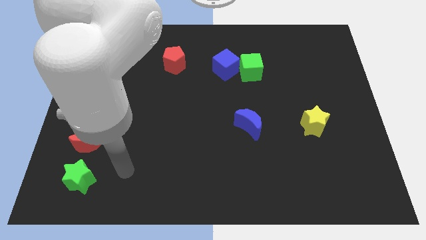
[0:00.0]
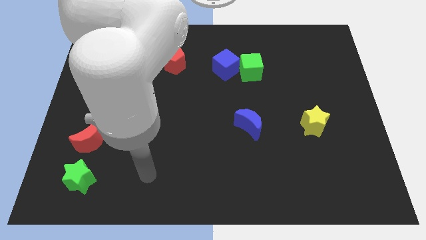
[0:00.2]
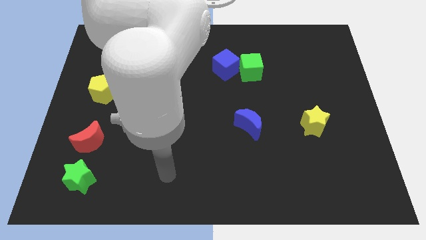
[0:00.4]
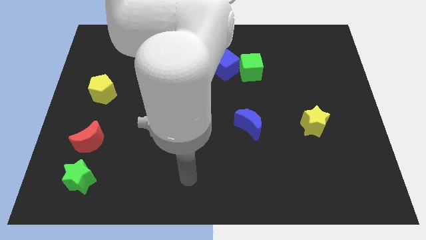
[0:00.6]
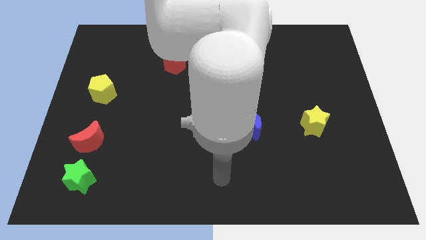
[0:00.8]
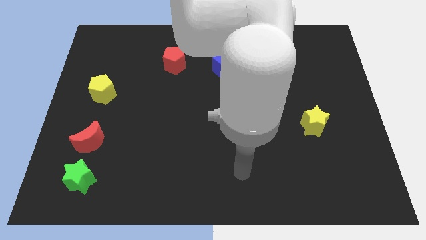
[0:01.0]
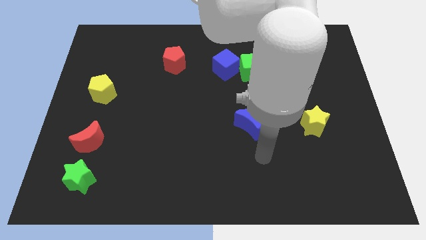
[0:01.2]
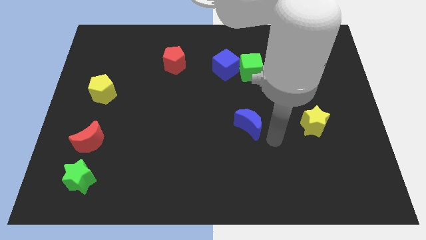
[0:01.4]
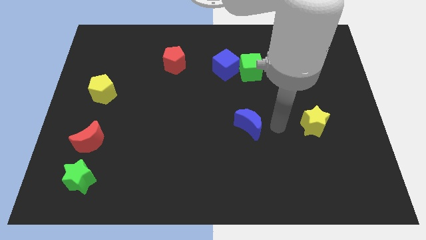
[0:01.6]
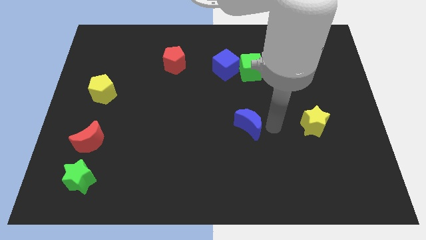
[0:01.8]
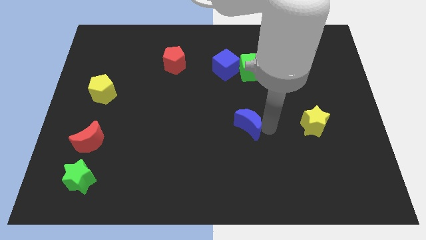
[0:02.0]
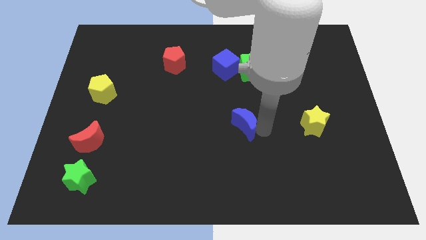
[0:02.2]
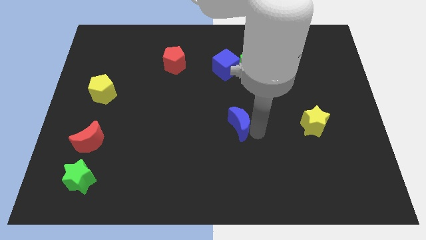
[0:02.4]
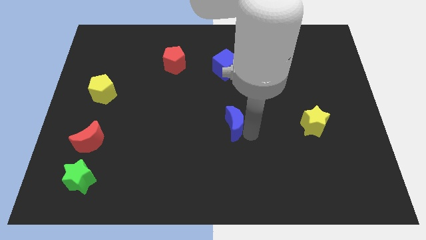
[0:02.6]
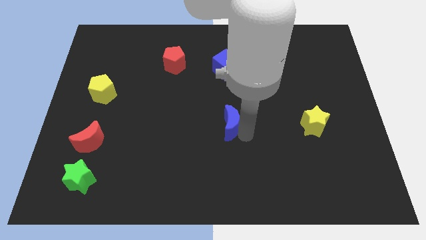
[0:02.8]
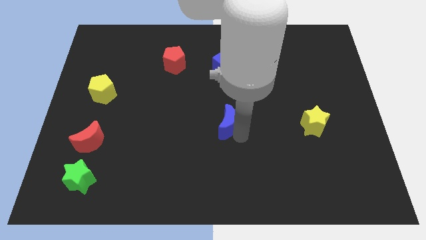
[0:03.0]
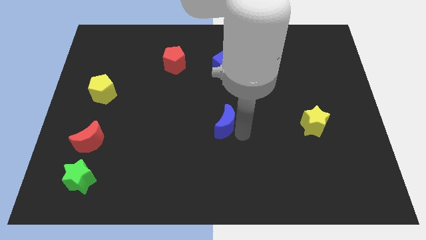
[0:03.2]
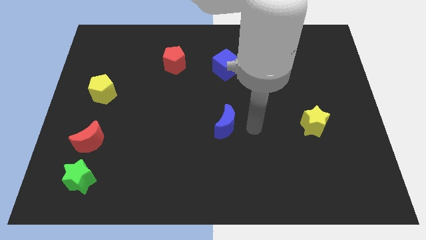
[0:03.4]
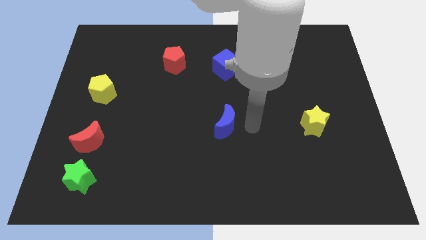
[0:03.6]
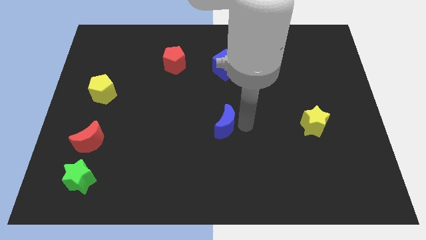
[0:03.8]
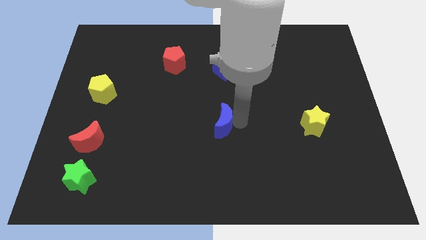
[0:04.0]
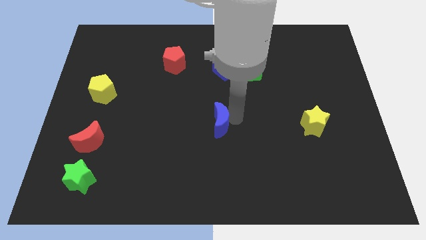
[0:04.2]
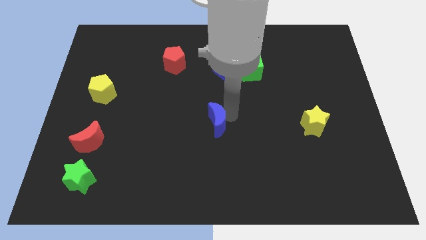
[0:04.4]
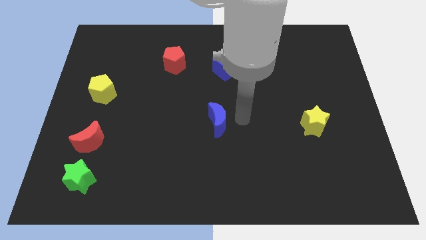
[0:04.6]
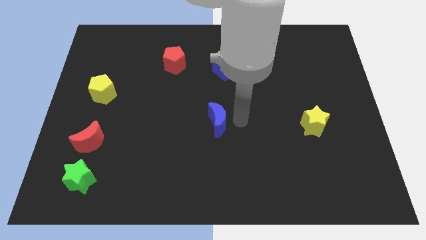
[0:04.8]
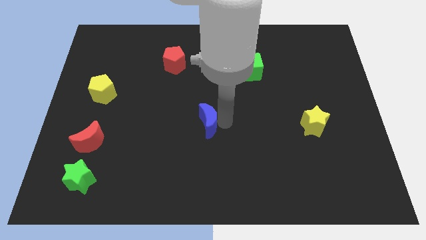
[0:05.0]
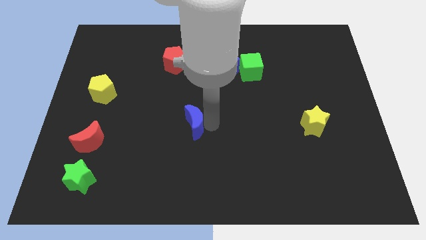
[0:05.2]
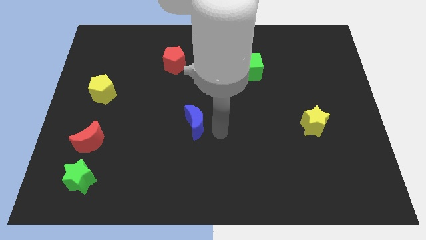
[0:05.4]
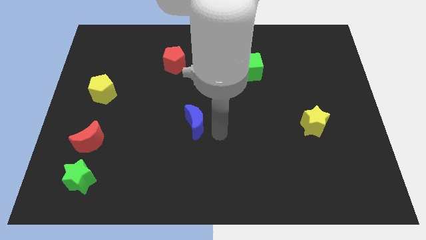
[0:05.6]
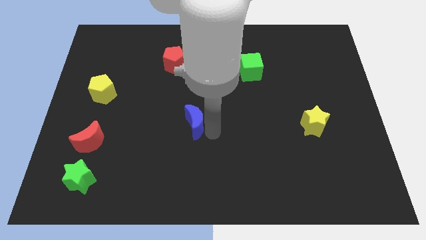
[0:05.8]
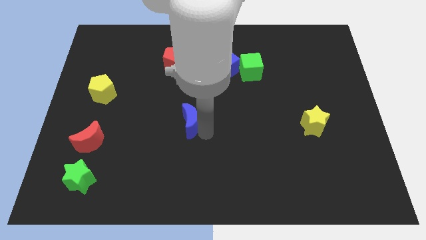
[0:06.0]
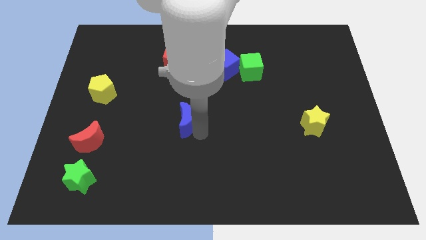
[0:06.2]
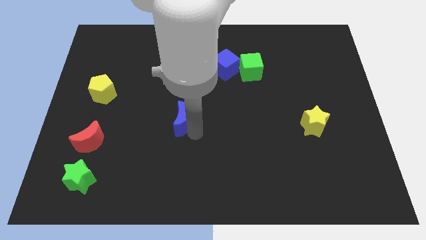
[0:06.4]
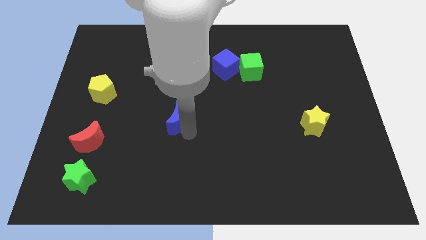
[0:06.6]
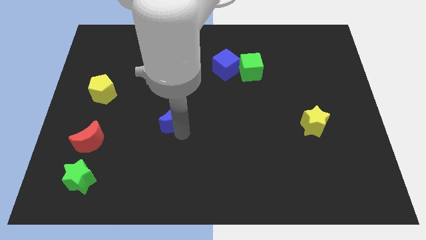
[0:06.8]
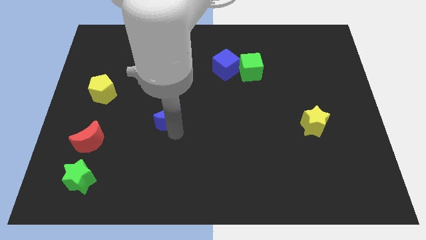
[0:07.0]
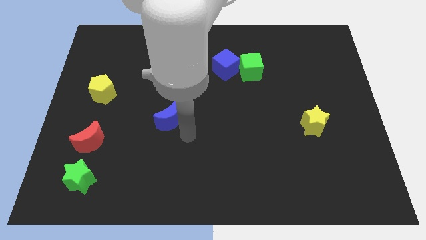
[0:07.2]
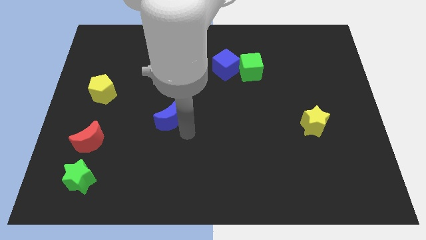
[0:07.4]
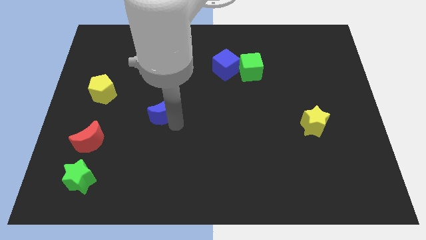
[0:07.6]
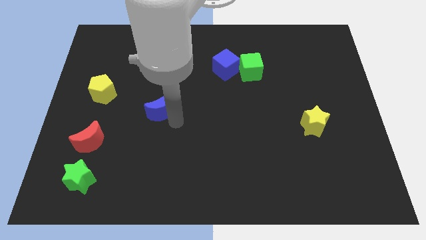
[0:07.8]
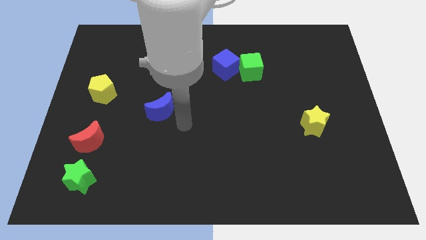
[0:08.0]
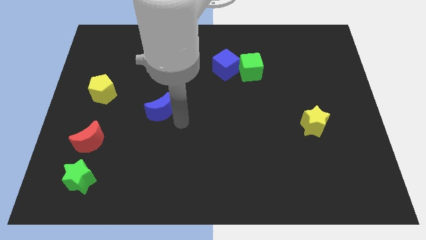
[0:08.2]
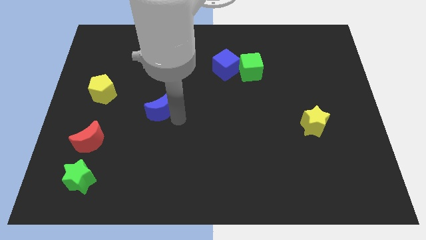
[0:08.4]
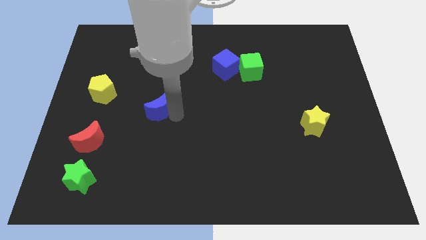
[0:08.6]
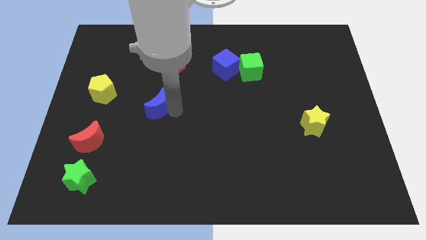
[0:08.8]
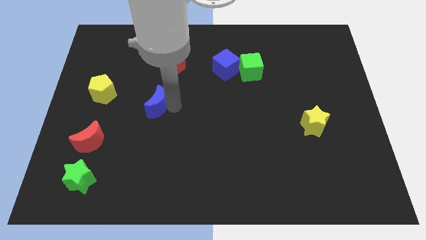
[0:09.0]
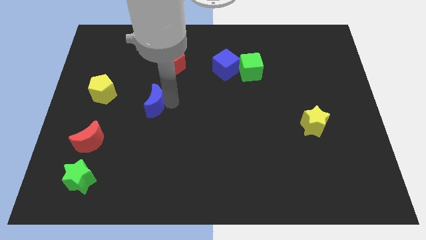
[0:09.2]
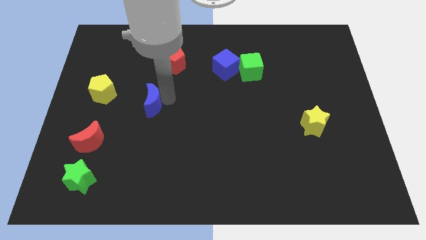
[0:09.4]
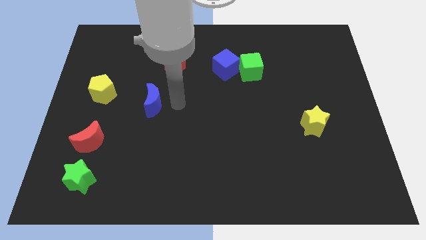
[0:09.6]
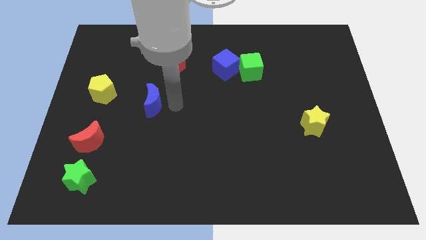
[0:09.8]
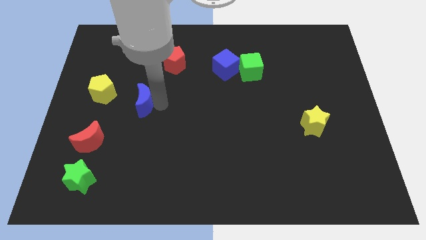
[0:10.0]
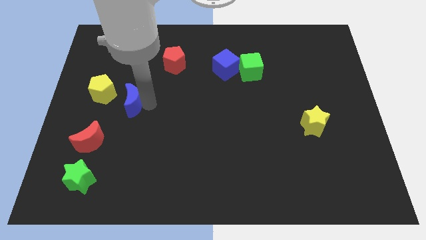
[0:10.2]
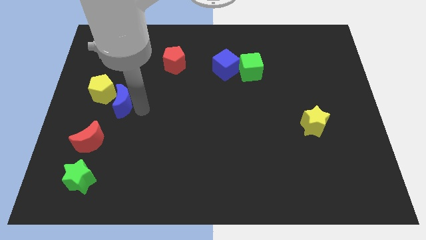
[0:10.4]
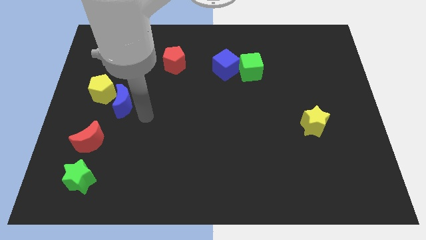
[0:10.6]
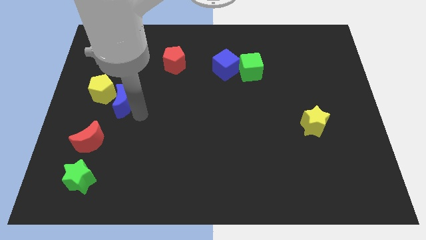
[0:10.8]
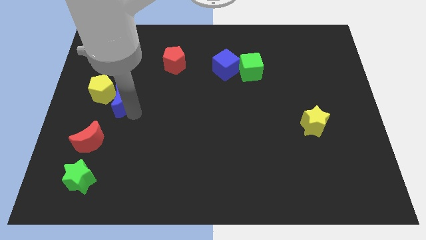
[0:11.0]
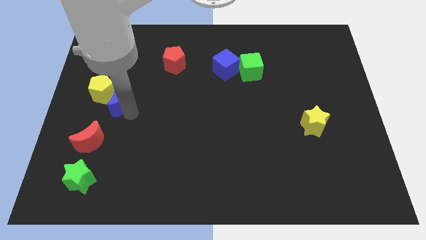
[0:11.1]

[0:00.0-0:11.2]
move the blue moon towards the yellow pentagon

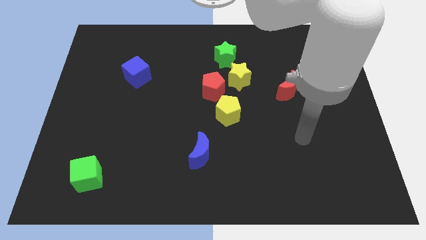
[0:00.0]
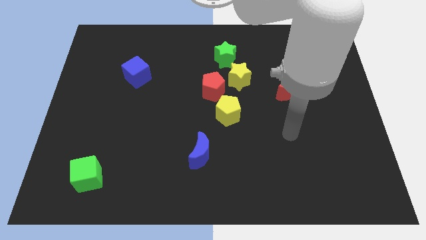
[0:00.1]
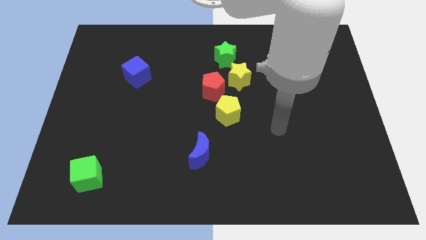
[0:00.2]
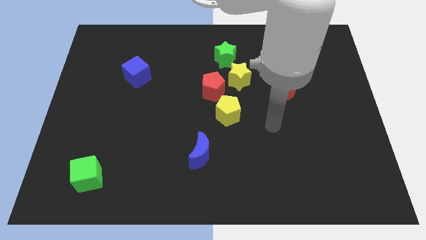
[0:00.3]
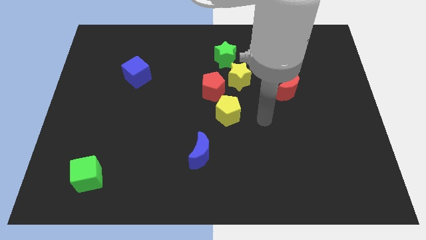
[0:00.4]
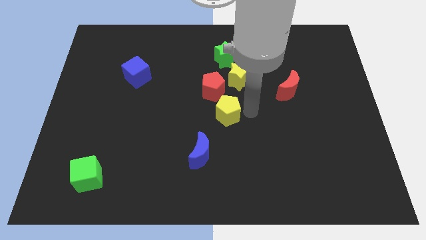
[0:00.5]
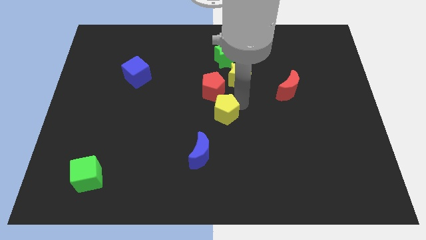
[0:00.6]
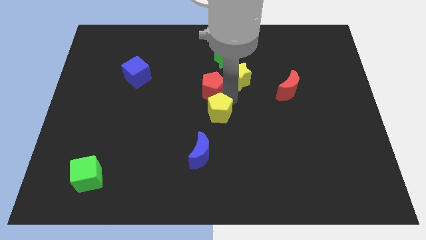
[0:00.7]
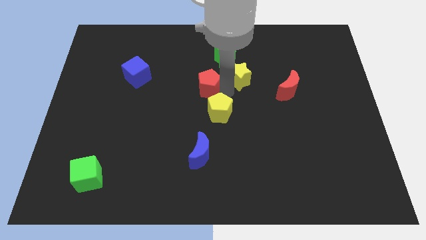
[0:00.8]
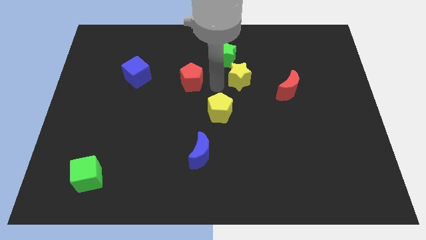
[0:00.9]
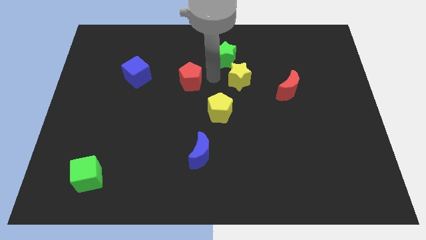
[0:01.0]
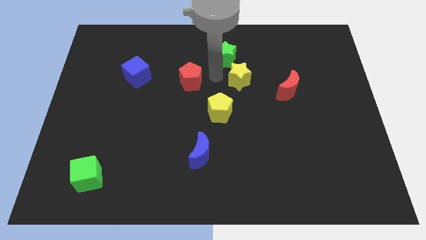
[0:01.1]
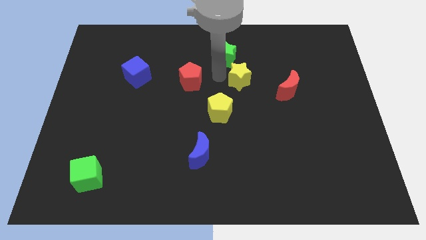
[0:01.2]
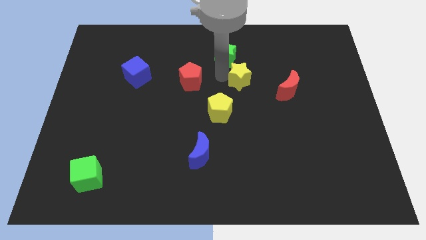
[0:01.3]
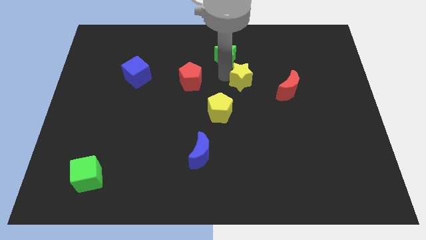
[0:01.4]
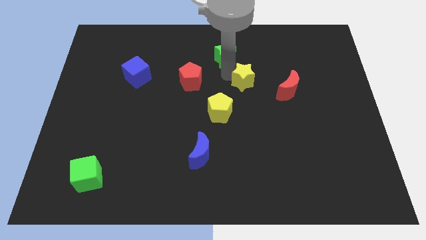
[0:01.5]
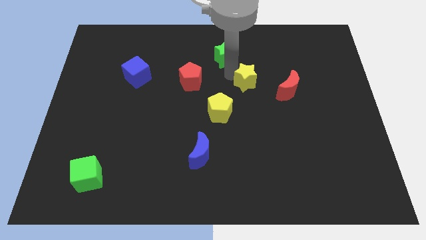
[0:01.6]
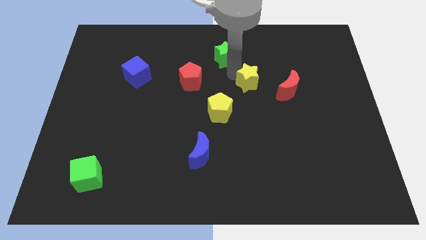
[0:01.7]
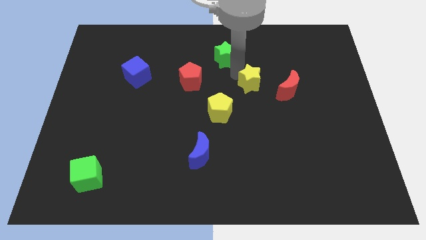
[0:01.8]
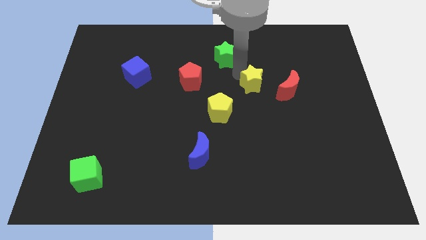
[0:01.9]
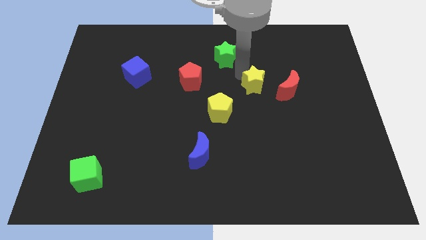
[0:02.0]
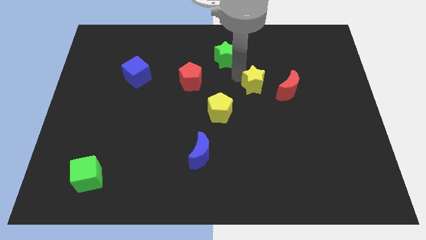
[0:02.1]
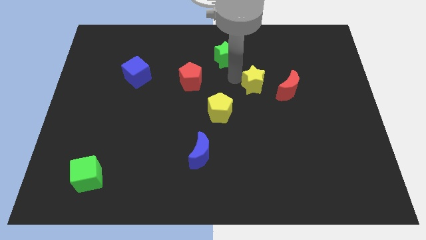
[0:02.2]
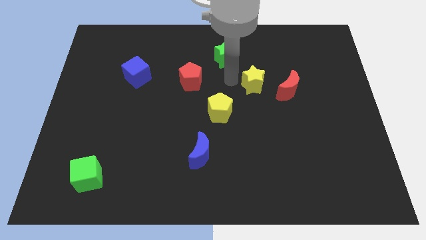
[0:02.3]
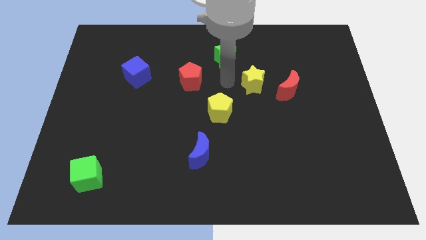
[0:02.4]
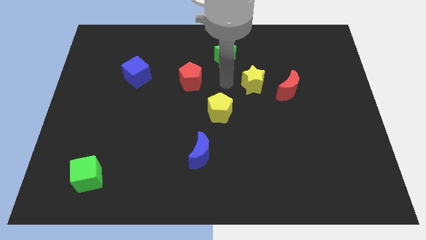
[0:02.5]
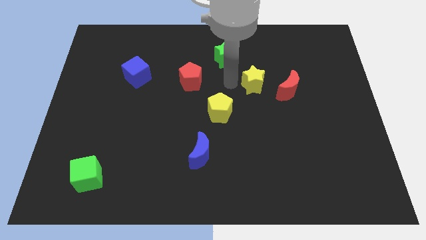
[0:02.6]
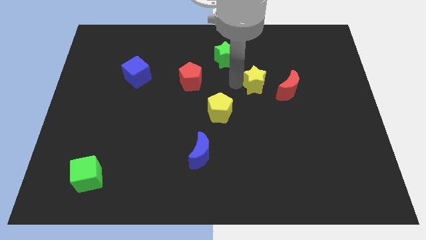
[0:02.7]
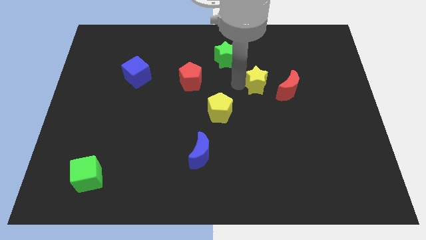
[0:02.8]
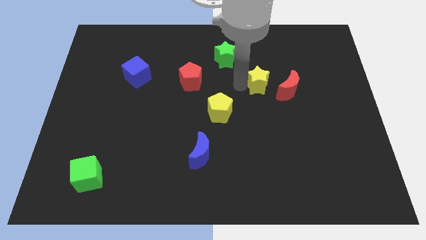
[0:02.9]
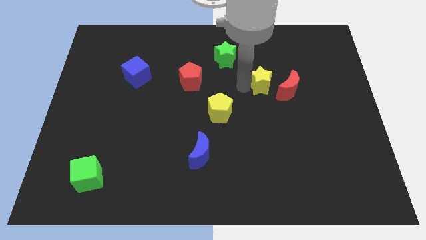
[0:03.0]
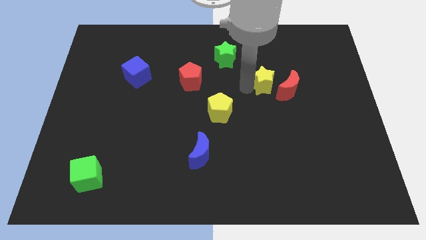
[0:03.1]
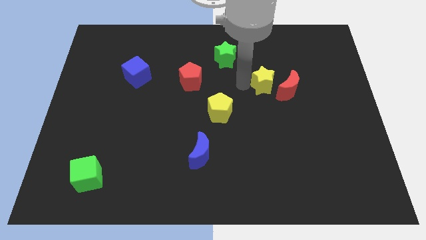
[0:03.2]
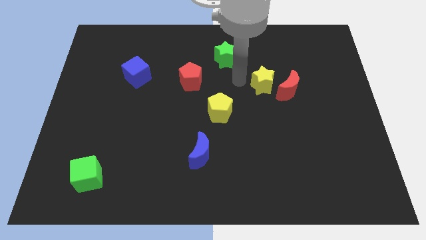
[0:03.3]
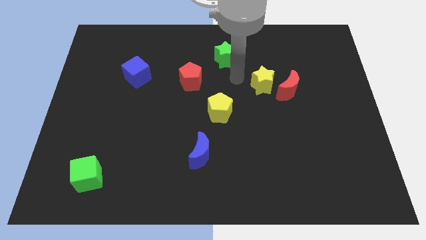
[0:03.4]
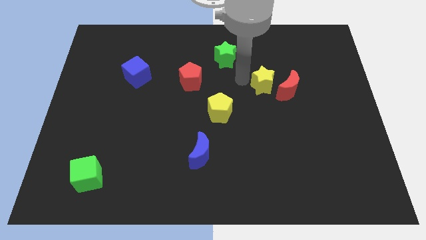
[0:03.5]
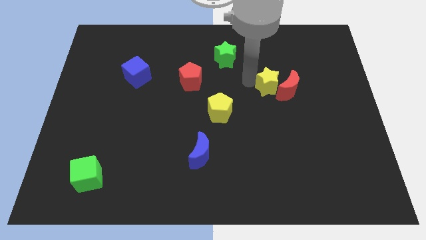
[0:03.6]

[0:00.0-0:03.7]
put the yellow star towards the red moon
